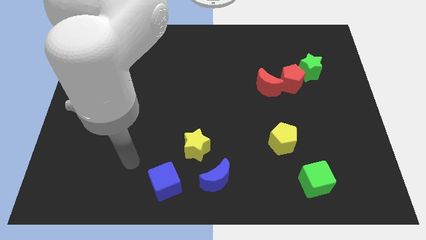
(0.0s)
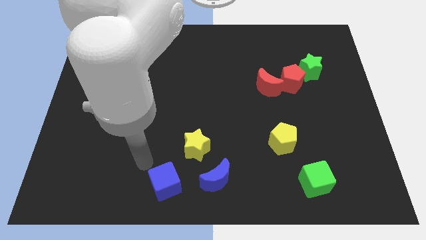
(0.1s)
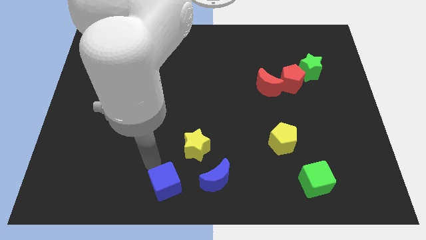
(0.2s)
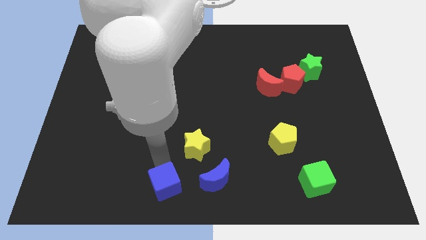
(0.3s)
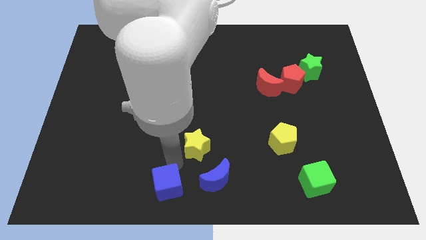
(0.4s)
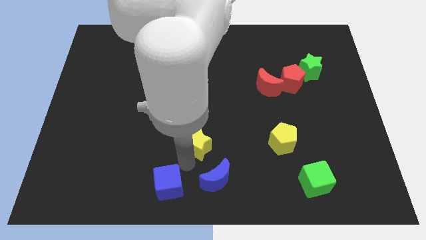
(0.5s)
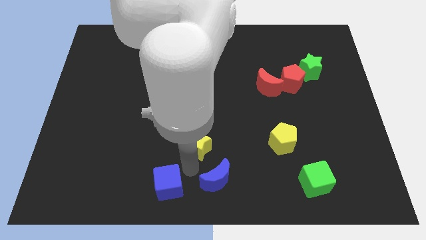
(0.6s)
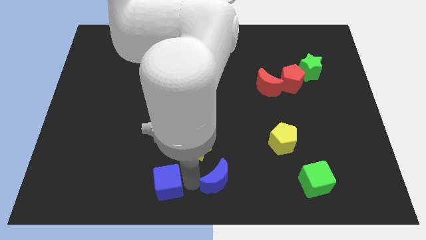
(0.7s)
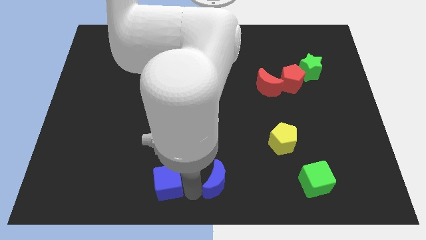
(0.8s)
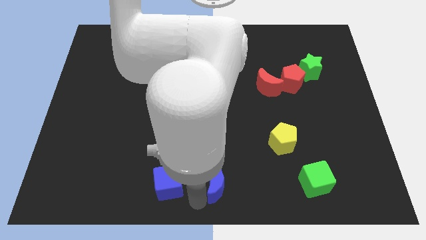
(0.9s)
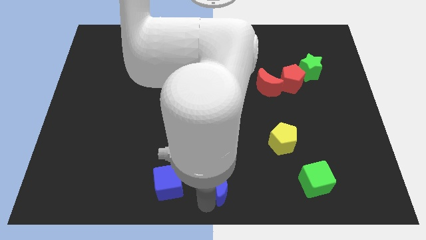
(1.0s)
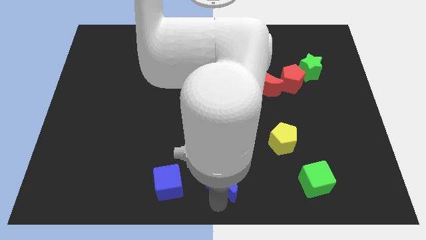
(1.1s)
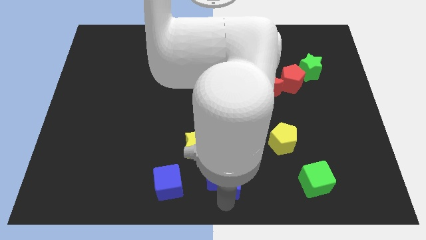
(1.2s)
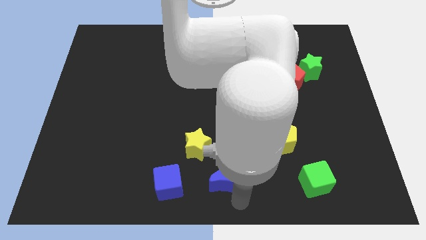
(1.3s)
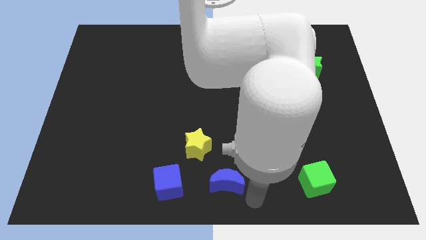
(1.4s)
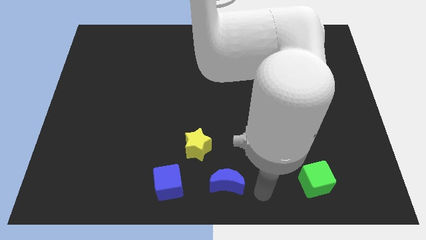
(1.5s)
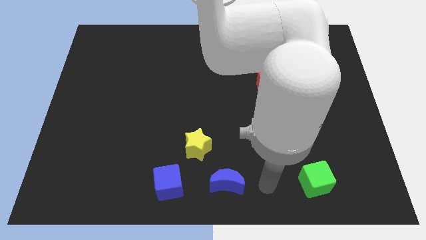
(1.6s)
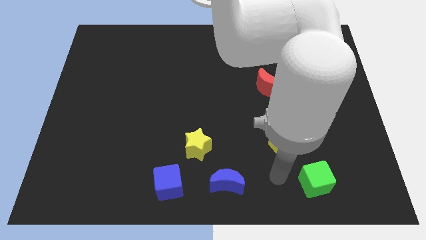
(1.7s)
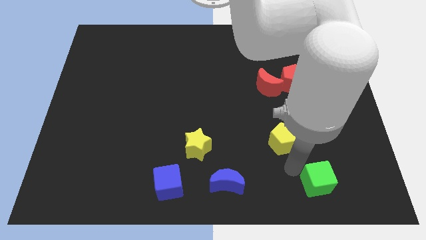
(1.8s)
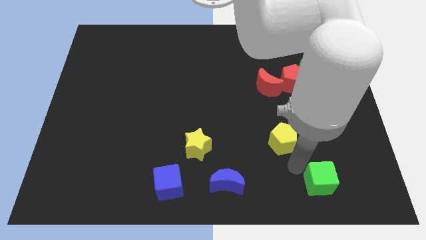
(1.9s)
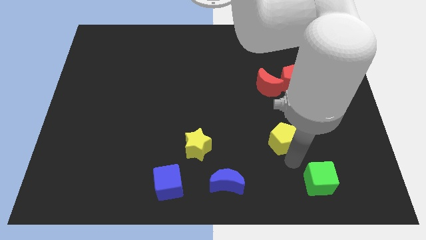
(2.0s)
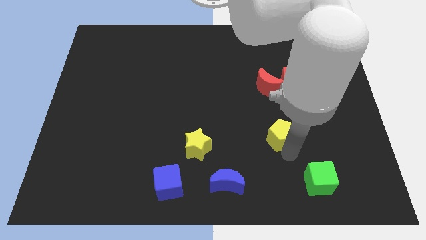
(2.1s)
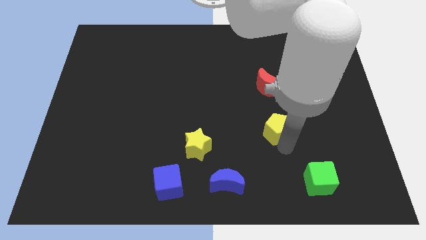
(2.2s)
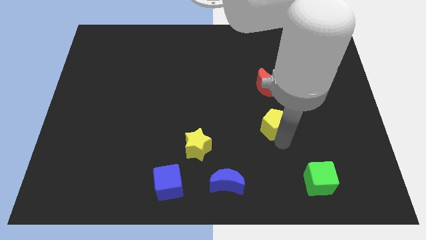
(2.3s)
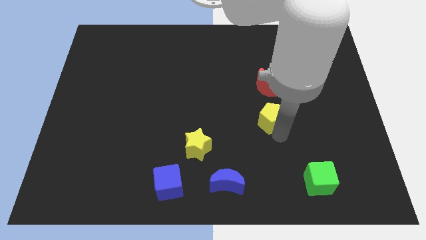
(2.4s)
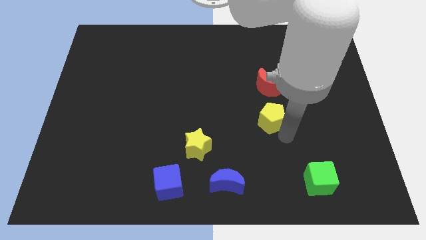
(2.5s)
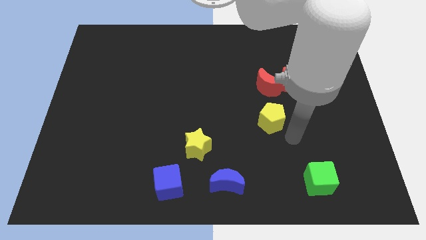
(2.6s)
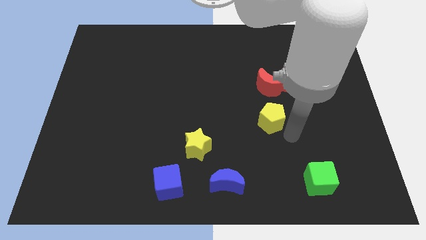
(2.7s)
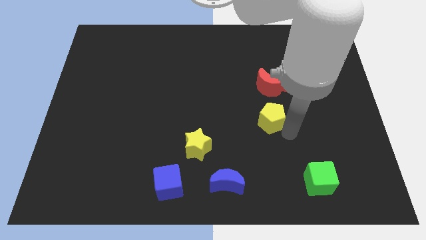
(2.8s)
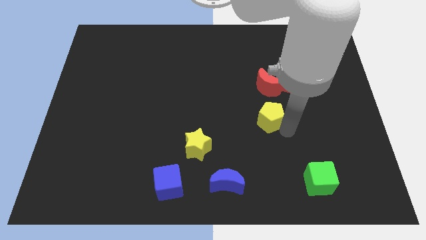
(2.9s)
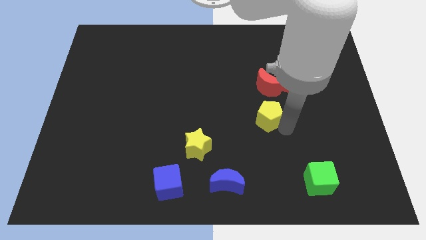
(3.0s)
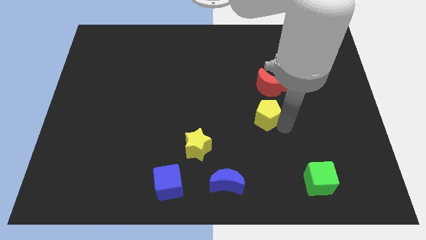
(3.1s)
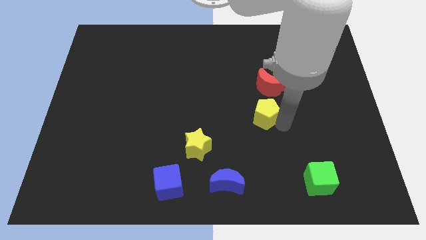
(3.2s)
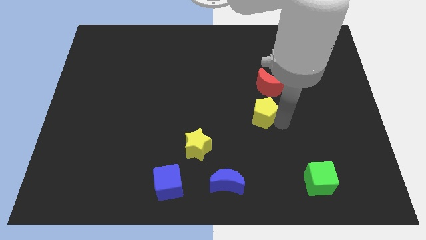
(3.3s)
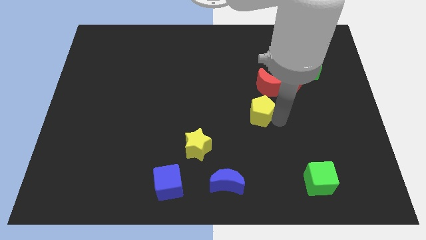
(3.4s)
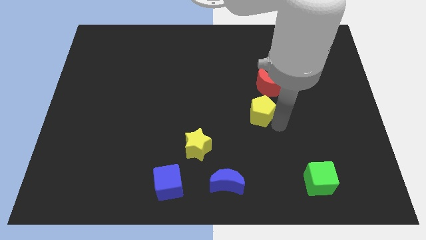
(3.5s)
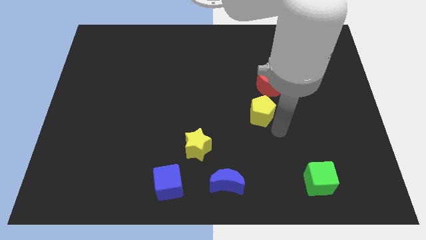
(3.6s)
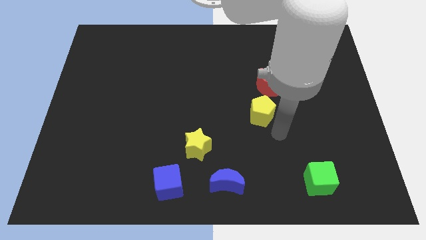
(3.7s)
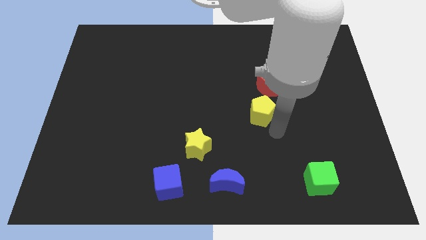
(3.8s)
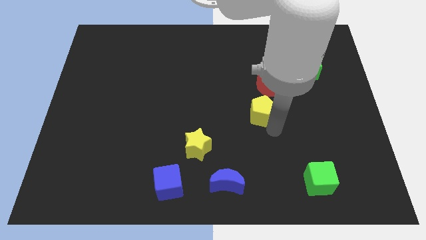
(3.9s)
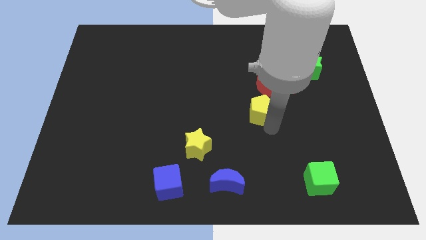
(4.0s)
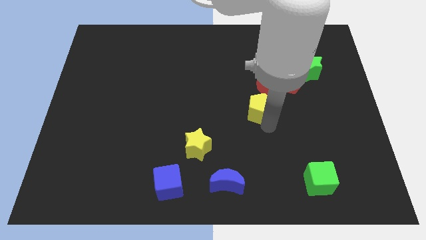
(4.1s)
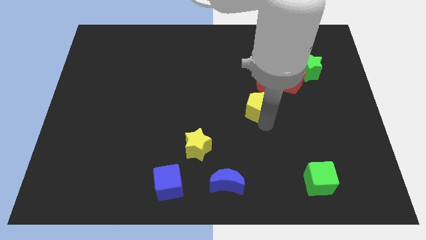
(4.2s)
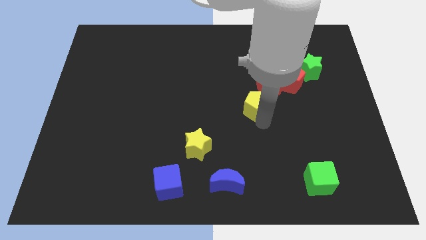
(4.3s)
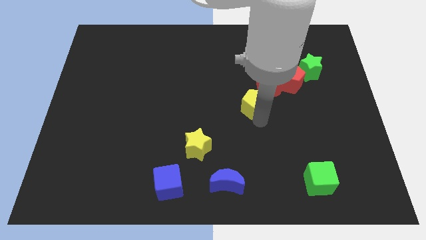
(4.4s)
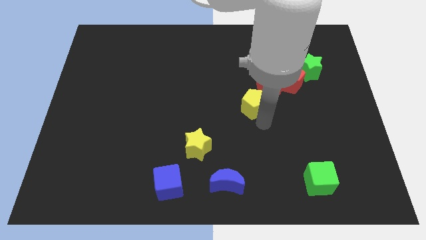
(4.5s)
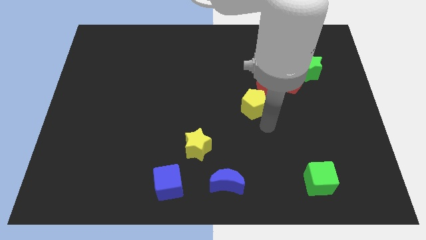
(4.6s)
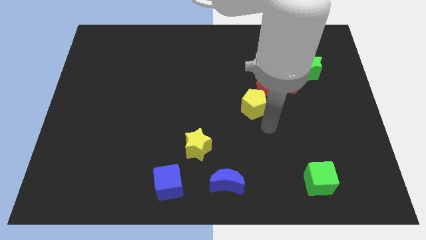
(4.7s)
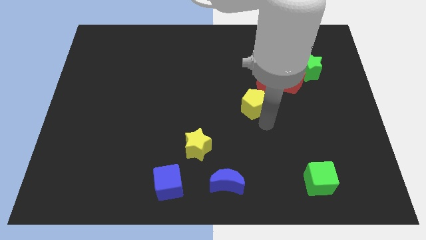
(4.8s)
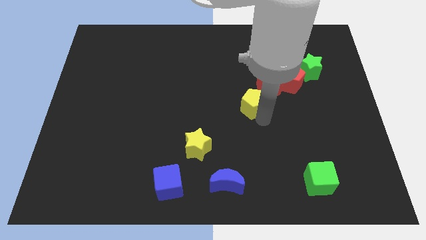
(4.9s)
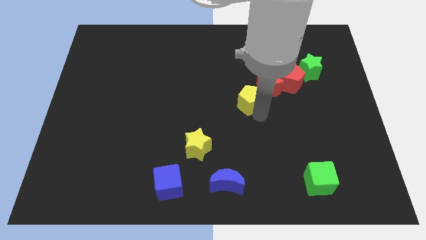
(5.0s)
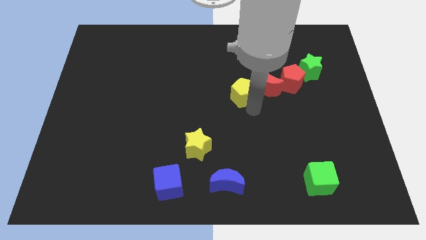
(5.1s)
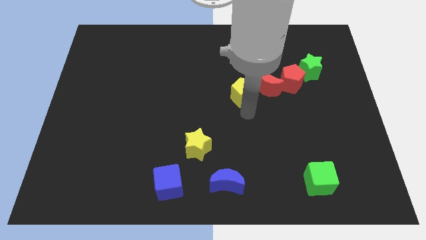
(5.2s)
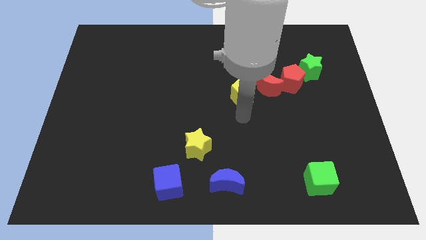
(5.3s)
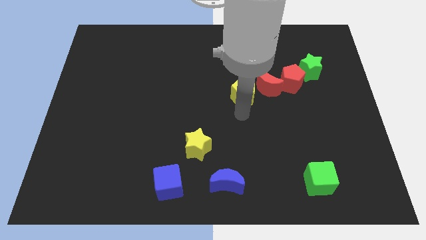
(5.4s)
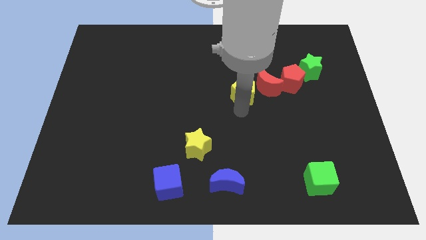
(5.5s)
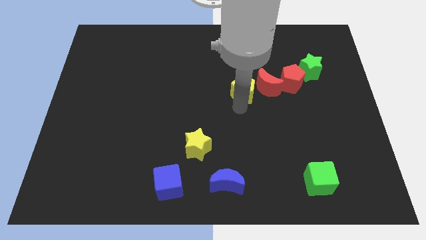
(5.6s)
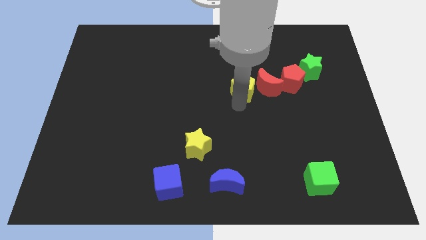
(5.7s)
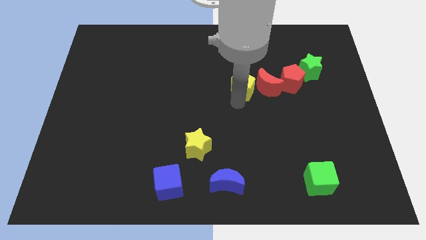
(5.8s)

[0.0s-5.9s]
move the yellow pentagon diagonally up and to the left of the red moon
